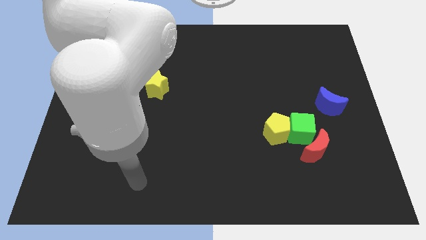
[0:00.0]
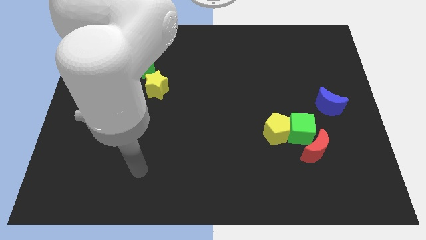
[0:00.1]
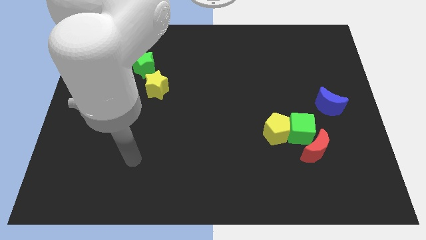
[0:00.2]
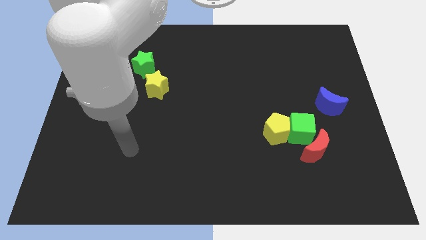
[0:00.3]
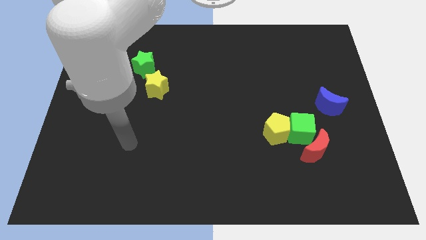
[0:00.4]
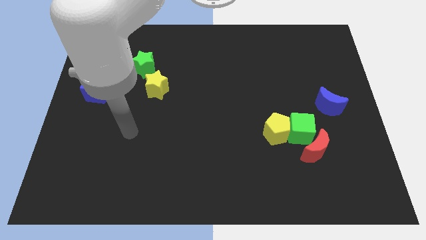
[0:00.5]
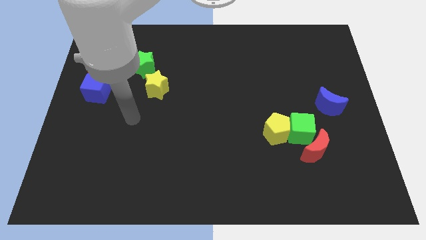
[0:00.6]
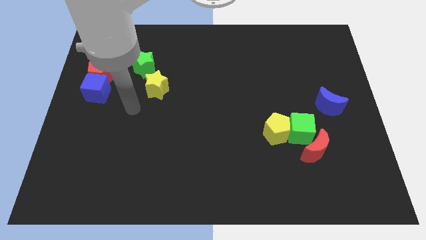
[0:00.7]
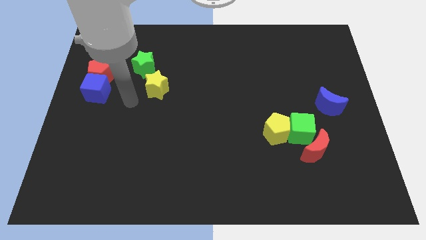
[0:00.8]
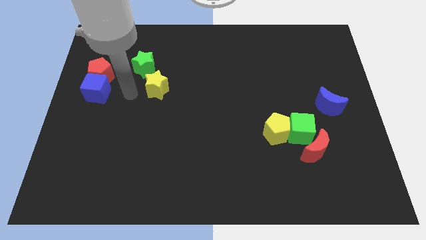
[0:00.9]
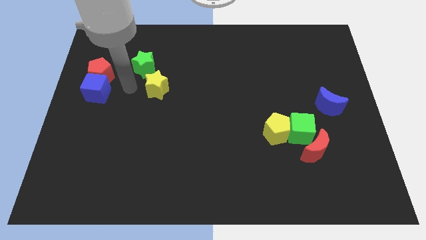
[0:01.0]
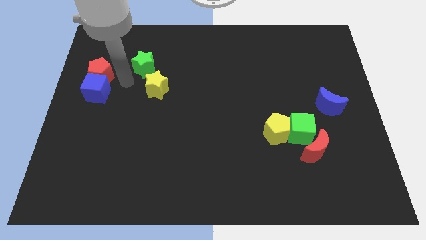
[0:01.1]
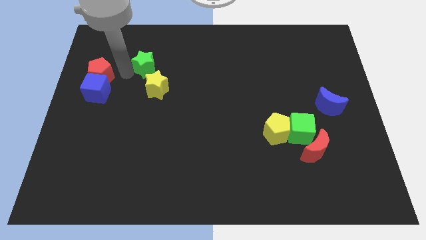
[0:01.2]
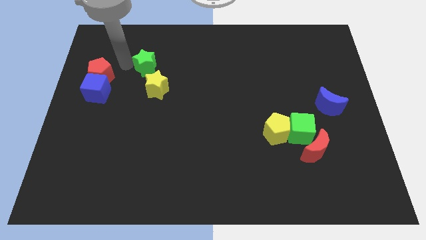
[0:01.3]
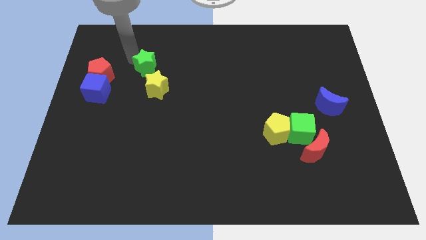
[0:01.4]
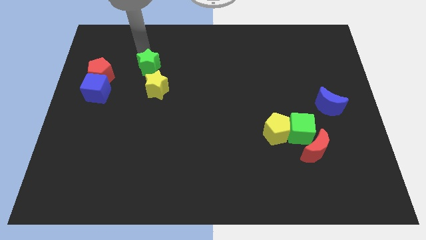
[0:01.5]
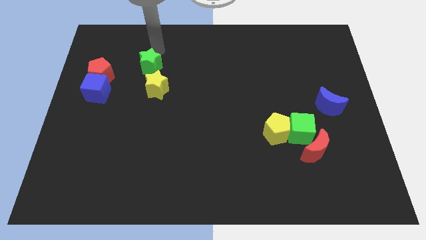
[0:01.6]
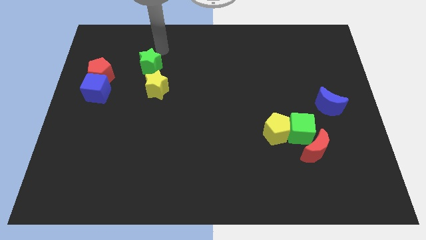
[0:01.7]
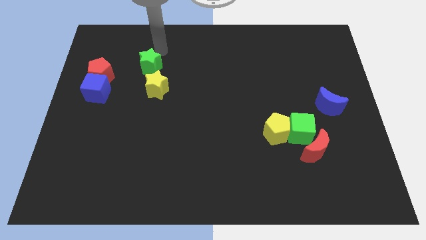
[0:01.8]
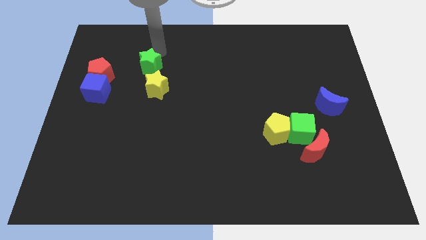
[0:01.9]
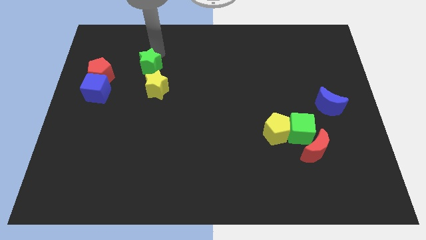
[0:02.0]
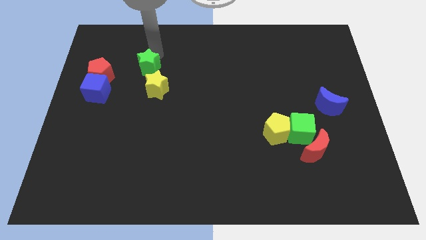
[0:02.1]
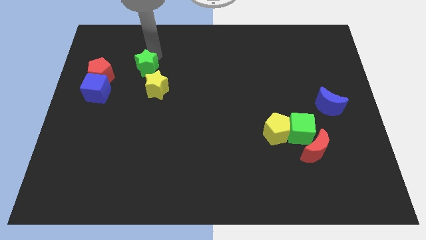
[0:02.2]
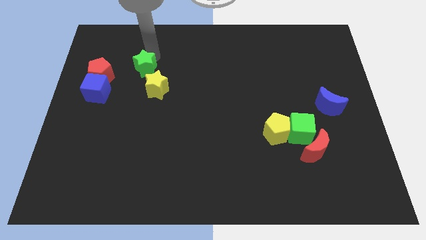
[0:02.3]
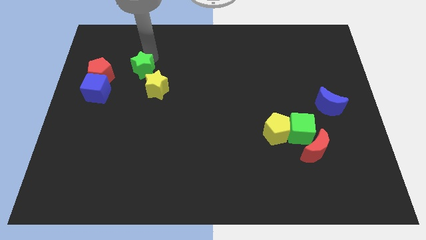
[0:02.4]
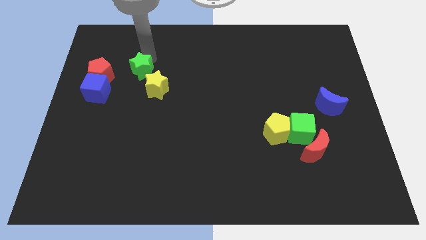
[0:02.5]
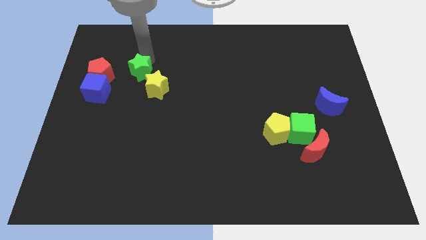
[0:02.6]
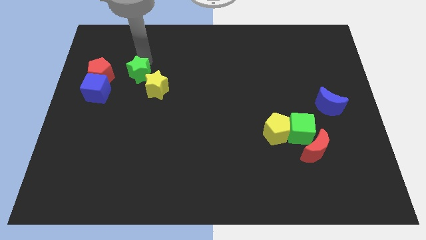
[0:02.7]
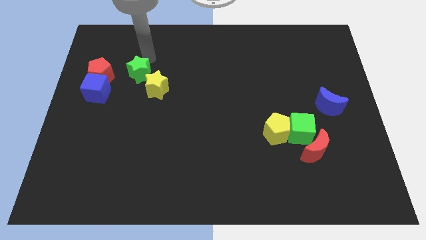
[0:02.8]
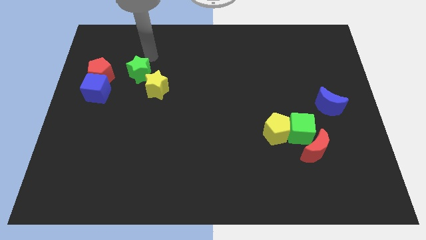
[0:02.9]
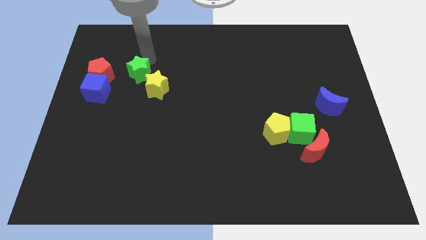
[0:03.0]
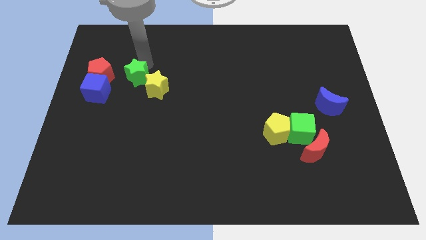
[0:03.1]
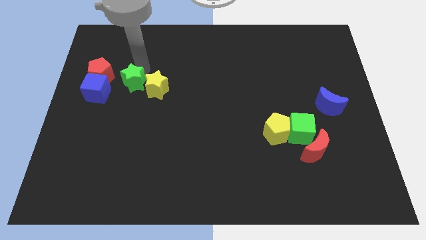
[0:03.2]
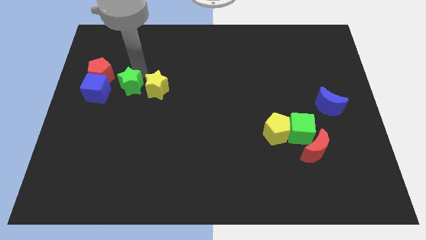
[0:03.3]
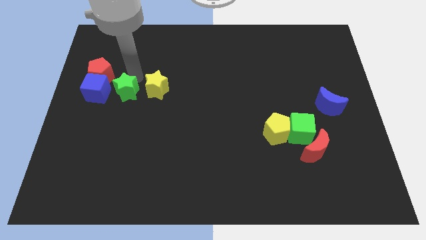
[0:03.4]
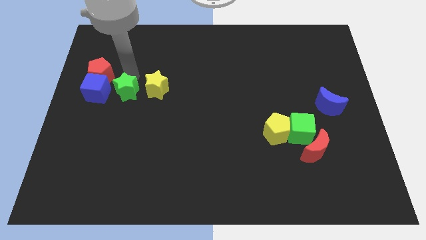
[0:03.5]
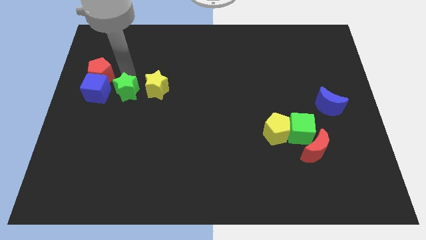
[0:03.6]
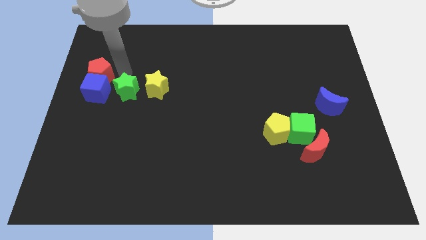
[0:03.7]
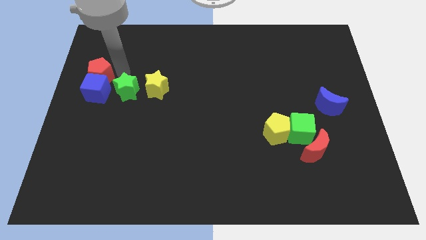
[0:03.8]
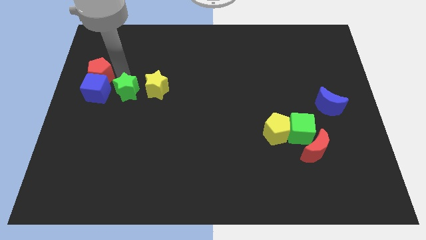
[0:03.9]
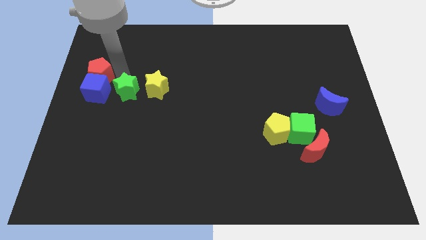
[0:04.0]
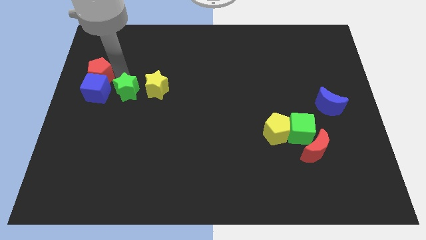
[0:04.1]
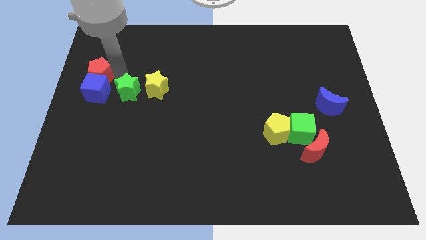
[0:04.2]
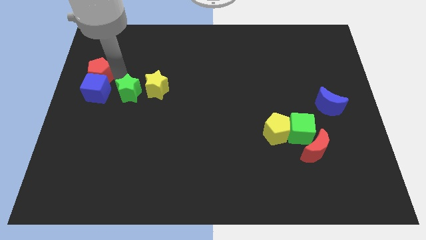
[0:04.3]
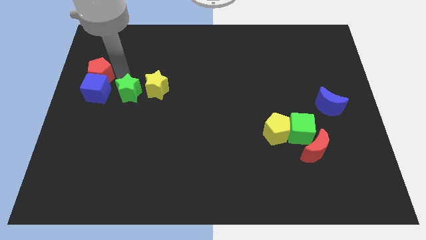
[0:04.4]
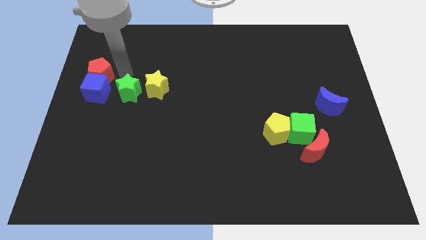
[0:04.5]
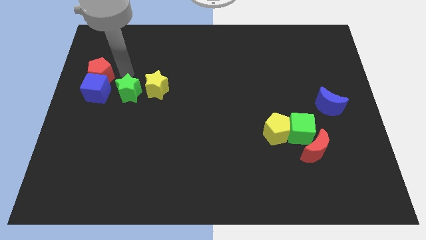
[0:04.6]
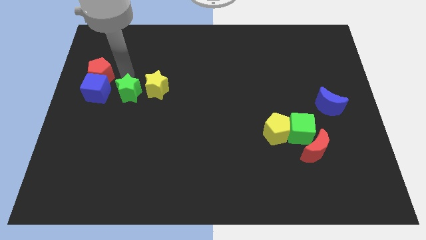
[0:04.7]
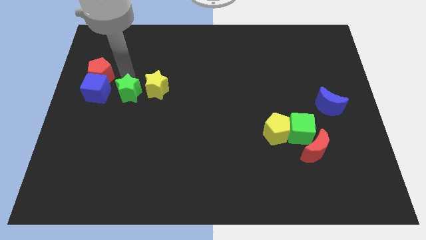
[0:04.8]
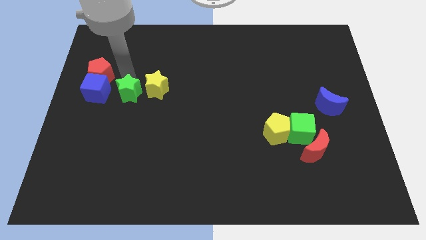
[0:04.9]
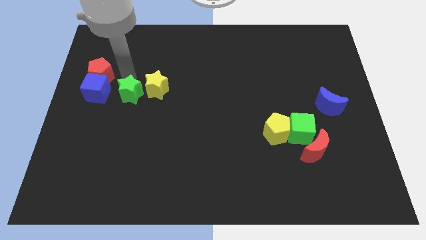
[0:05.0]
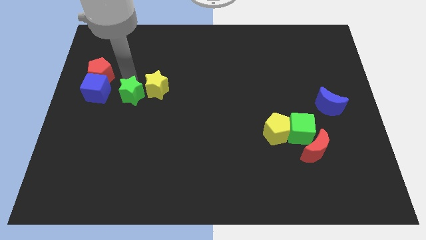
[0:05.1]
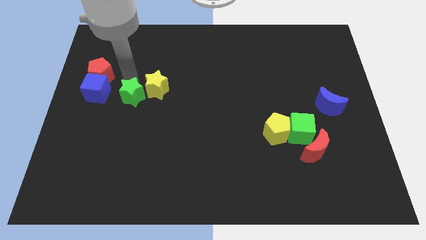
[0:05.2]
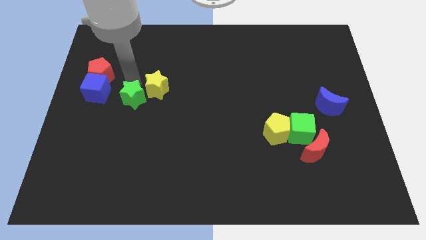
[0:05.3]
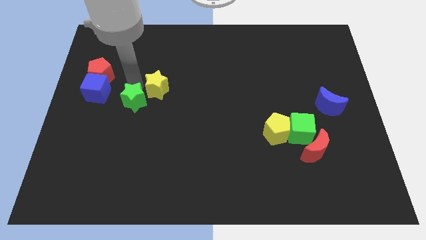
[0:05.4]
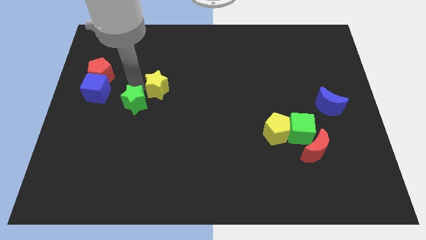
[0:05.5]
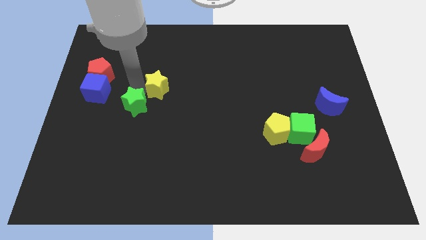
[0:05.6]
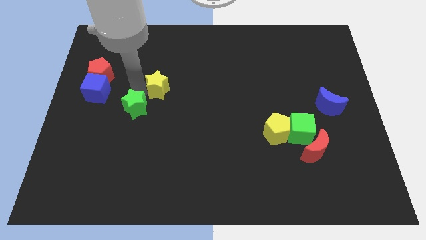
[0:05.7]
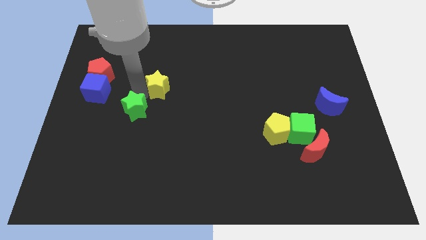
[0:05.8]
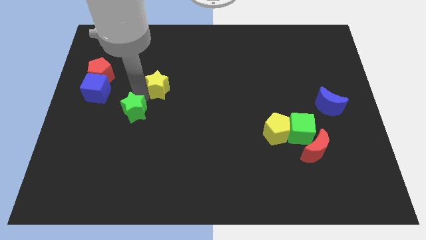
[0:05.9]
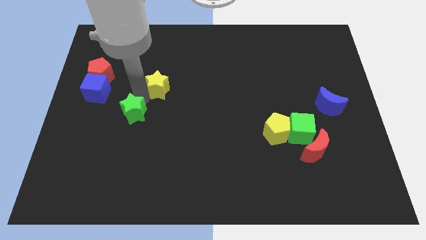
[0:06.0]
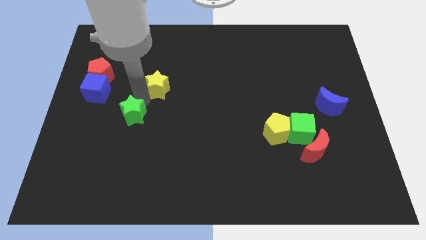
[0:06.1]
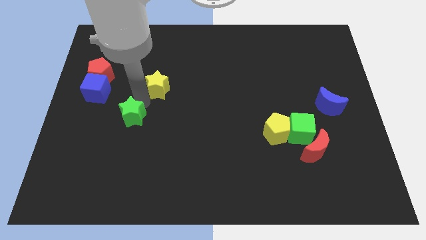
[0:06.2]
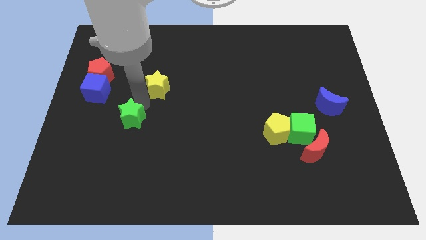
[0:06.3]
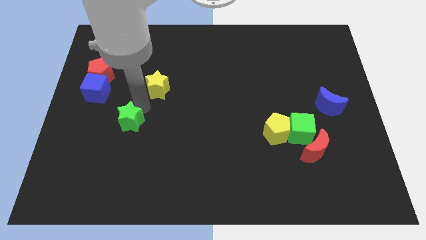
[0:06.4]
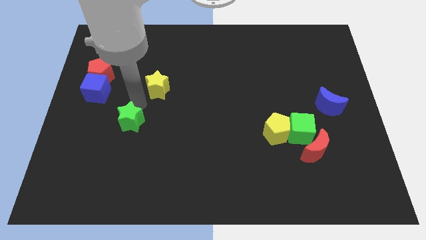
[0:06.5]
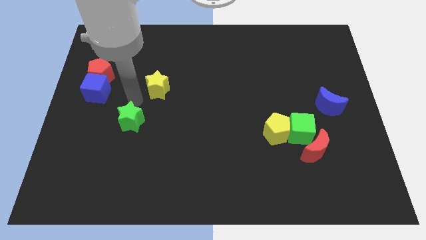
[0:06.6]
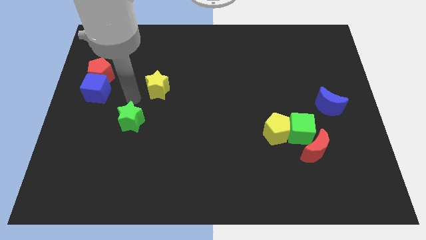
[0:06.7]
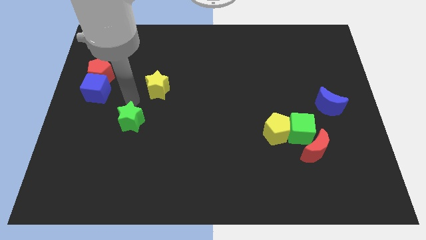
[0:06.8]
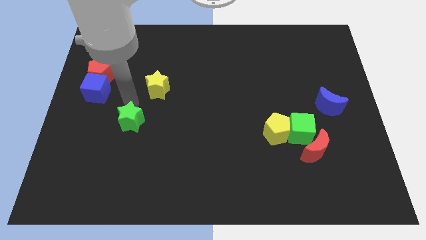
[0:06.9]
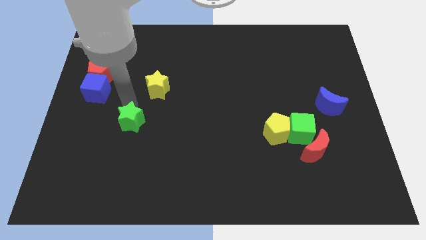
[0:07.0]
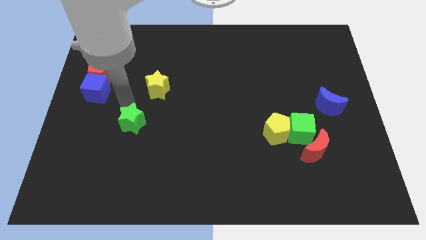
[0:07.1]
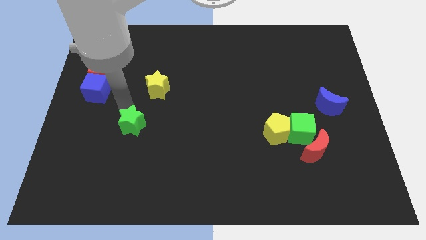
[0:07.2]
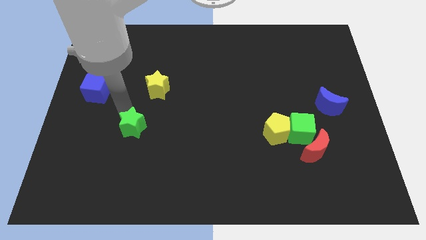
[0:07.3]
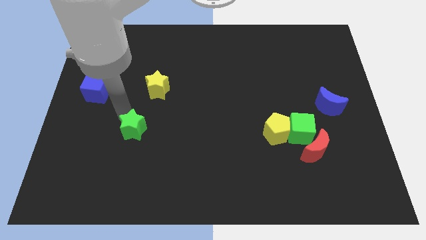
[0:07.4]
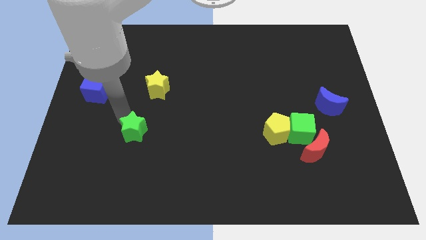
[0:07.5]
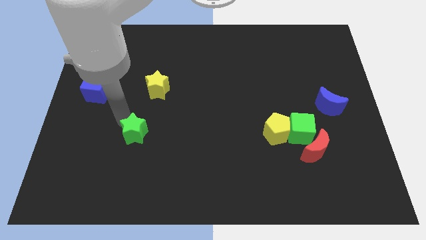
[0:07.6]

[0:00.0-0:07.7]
push the green star downwards

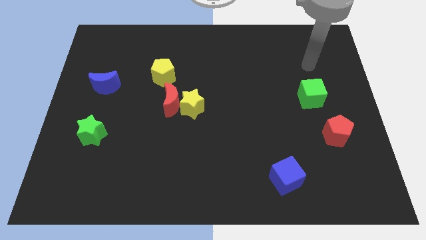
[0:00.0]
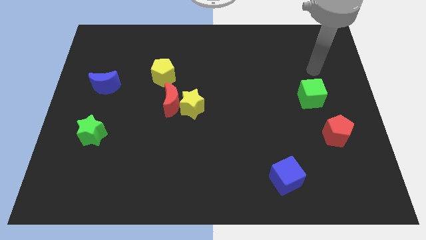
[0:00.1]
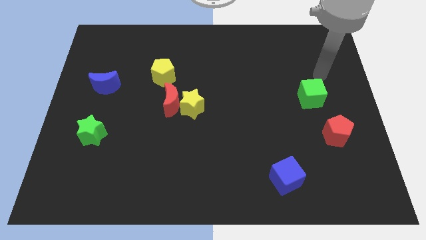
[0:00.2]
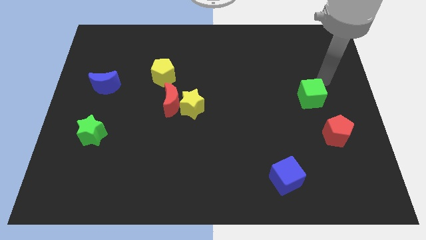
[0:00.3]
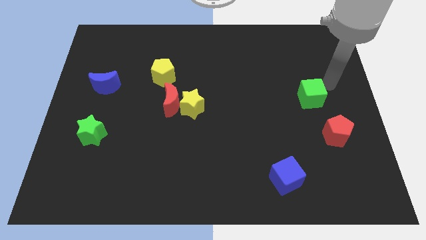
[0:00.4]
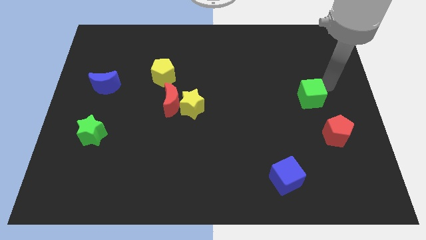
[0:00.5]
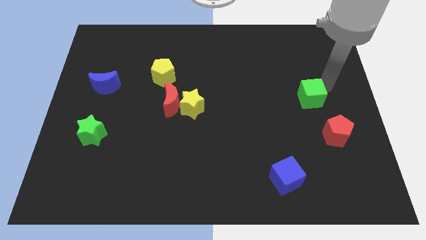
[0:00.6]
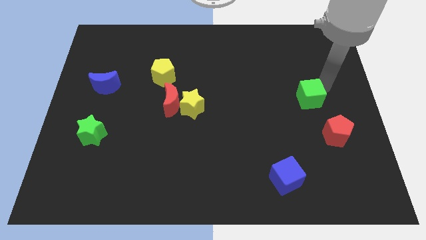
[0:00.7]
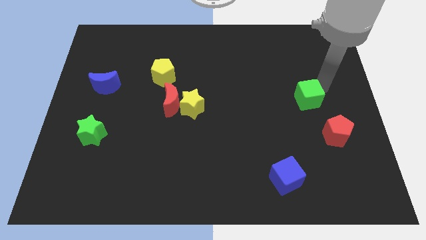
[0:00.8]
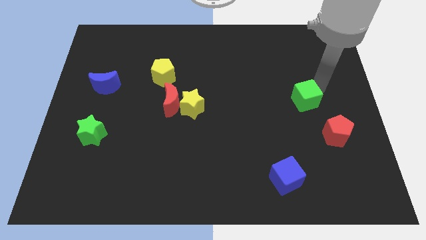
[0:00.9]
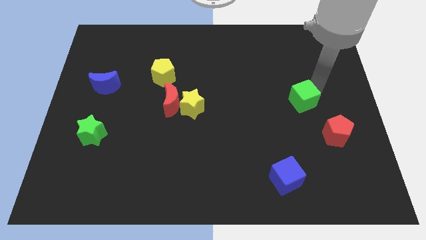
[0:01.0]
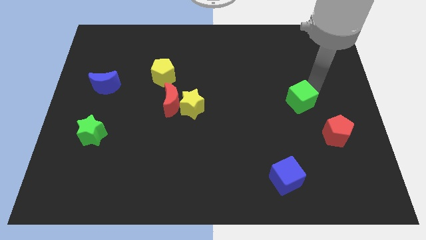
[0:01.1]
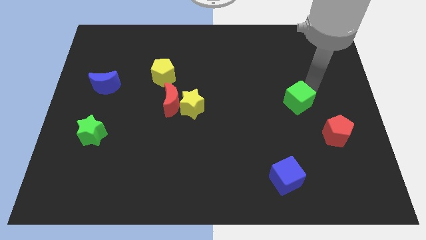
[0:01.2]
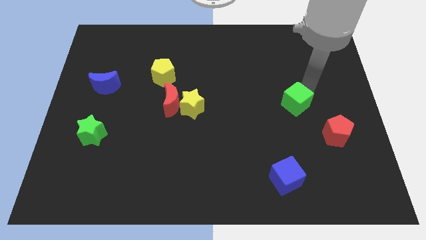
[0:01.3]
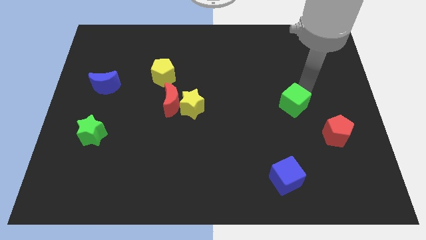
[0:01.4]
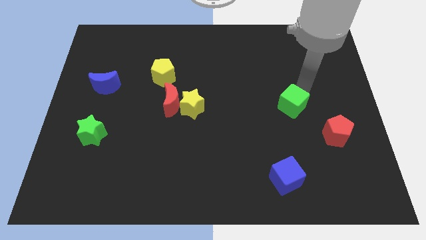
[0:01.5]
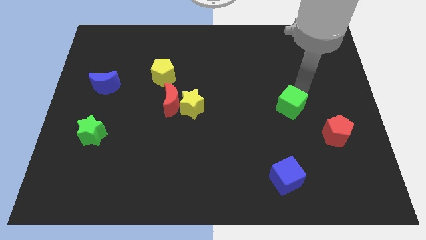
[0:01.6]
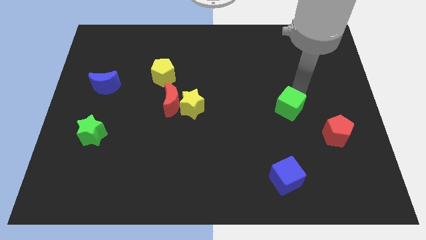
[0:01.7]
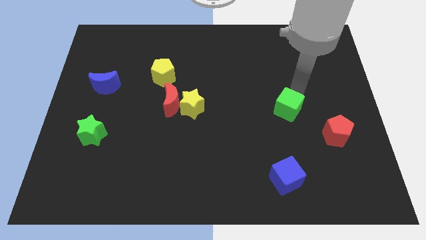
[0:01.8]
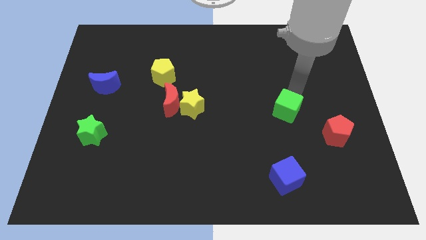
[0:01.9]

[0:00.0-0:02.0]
slightly move the green cube downwards and then left
